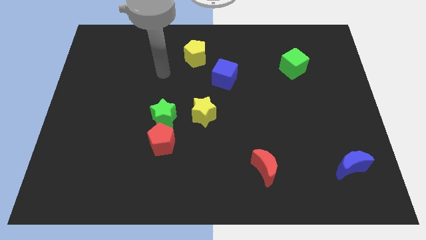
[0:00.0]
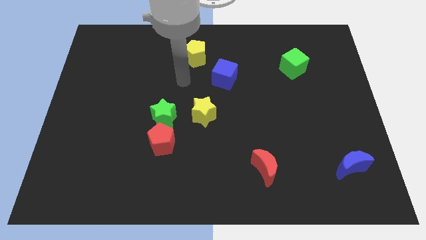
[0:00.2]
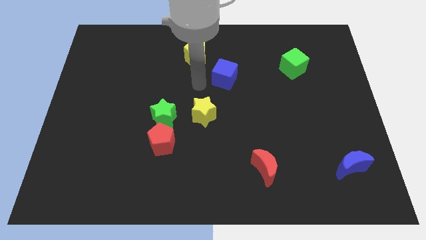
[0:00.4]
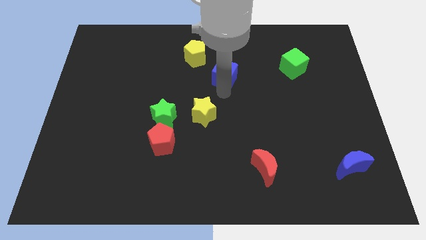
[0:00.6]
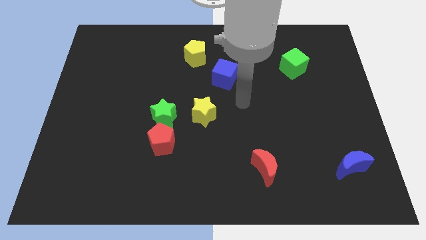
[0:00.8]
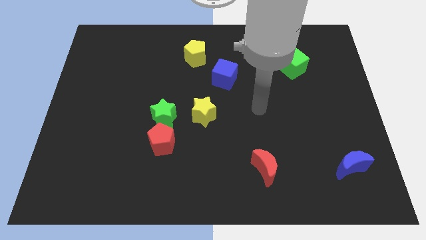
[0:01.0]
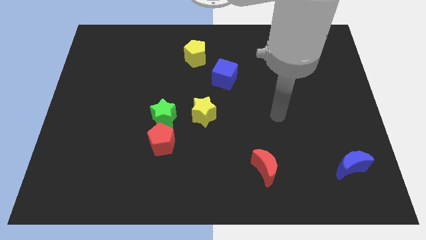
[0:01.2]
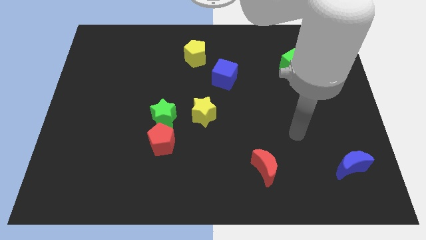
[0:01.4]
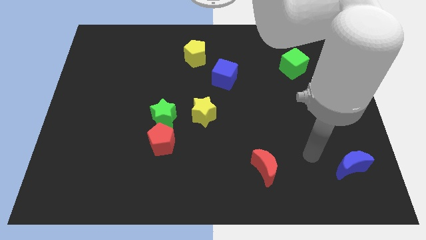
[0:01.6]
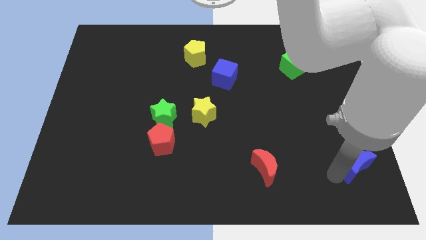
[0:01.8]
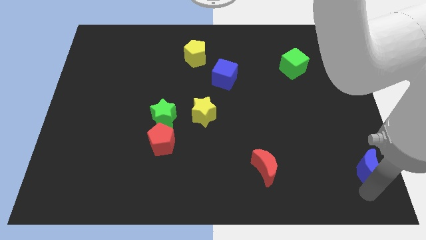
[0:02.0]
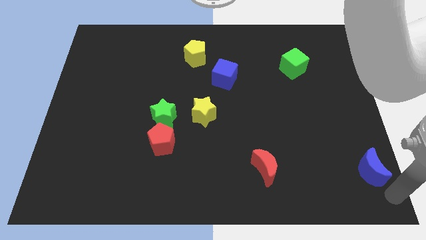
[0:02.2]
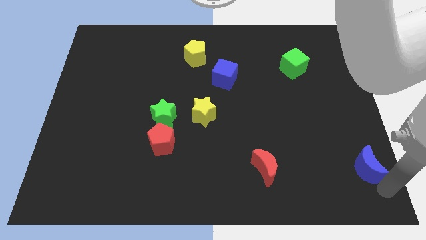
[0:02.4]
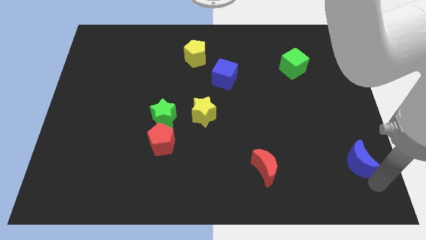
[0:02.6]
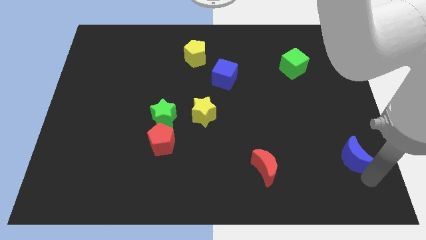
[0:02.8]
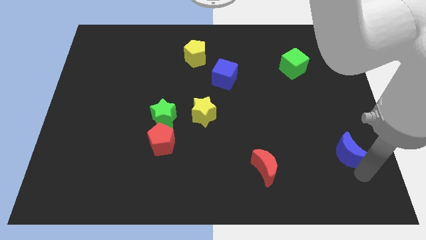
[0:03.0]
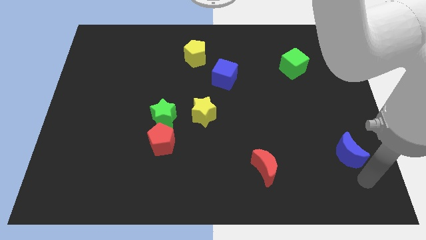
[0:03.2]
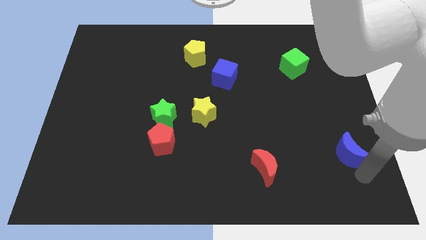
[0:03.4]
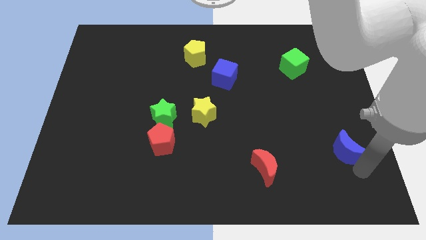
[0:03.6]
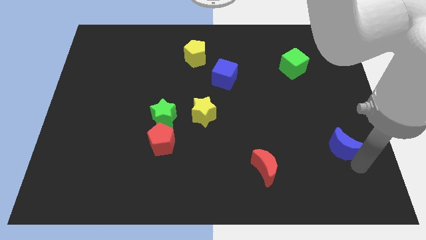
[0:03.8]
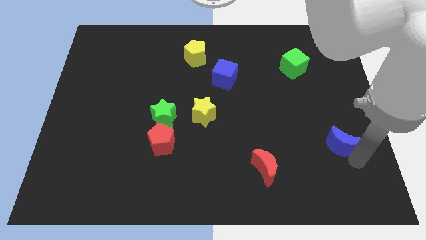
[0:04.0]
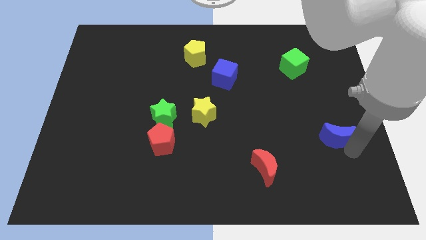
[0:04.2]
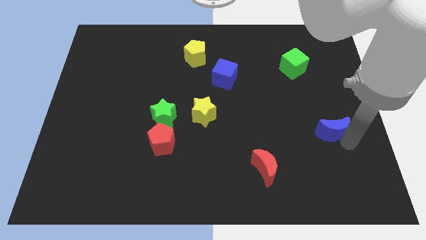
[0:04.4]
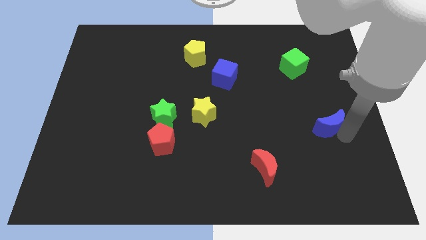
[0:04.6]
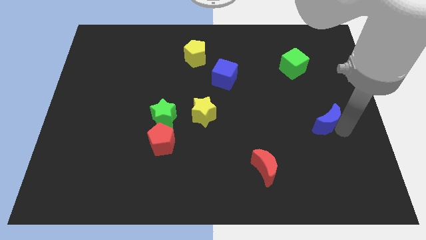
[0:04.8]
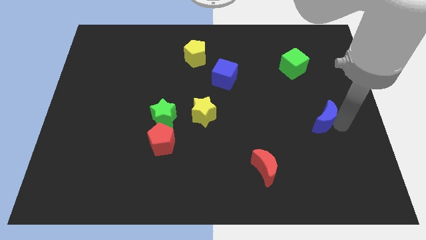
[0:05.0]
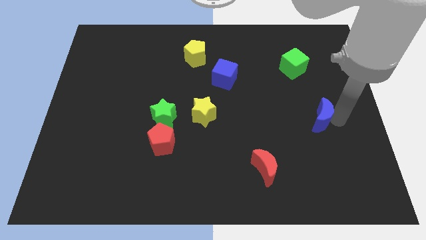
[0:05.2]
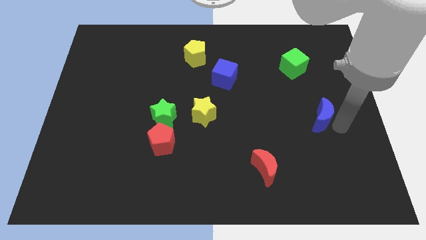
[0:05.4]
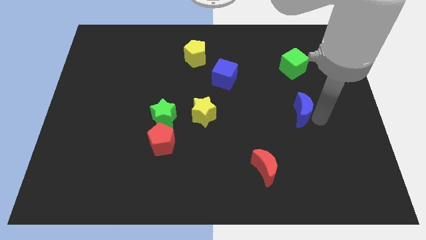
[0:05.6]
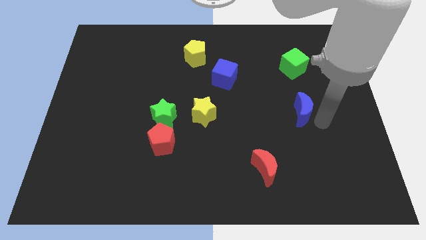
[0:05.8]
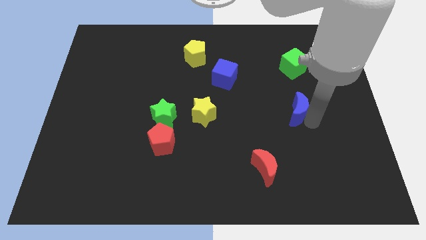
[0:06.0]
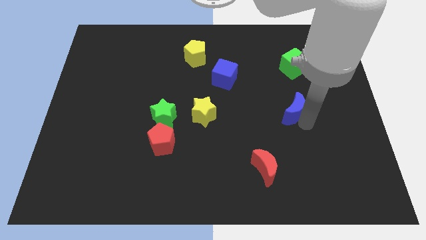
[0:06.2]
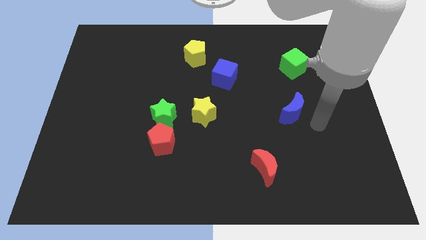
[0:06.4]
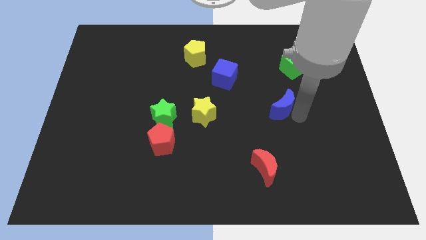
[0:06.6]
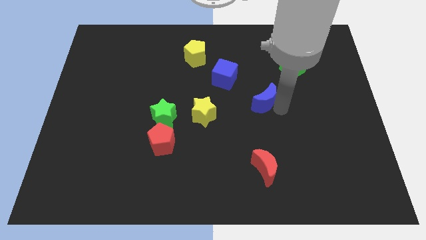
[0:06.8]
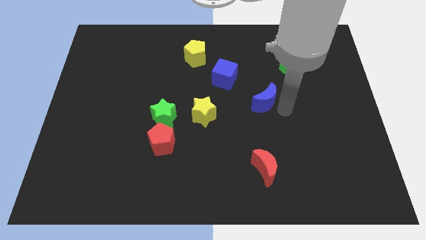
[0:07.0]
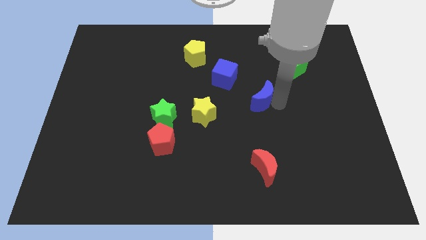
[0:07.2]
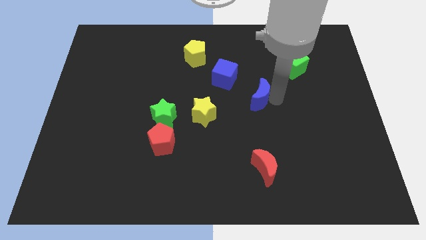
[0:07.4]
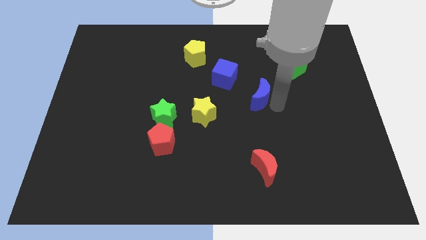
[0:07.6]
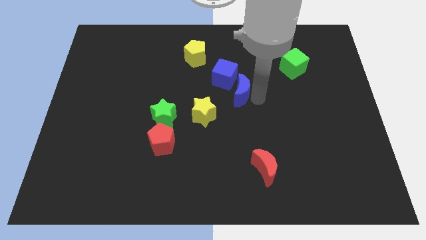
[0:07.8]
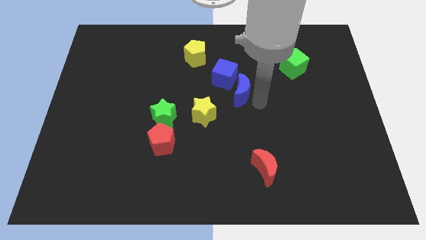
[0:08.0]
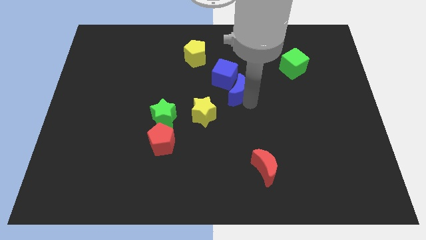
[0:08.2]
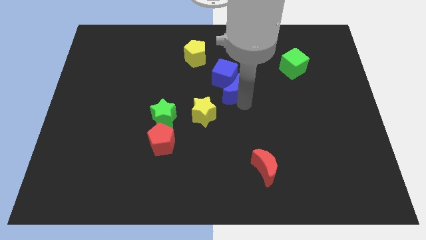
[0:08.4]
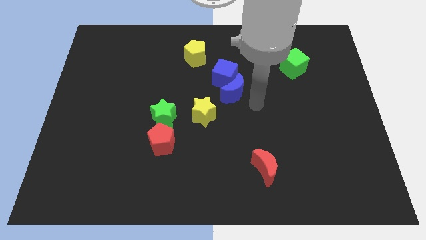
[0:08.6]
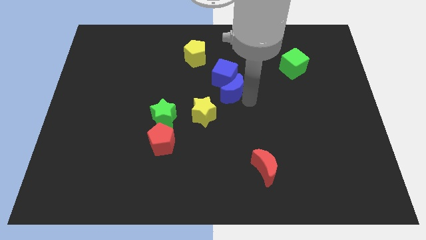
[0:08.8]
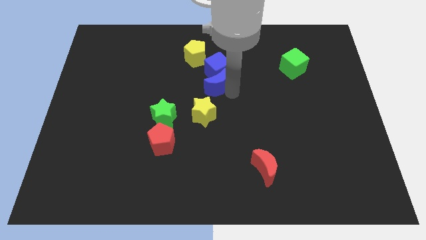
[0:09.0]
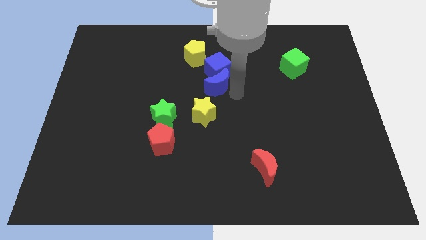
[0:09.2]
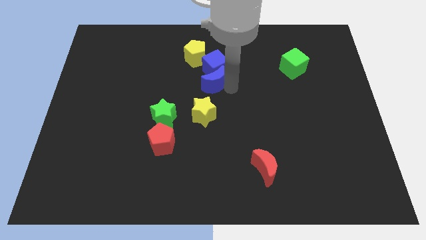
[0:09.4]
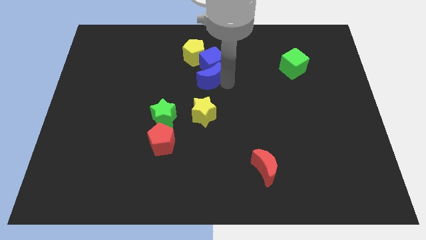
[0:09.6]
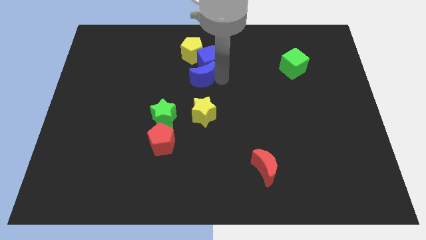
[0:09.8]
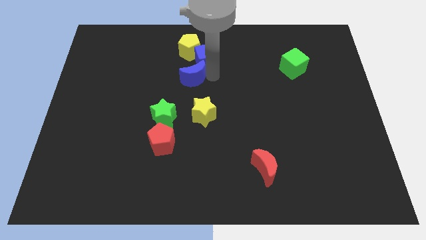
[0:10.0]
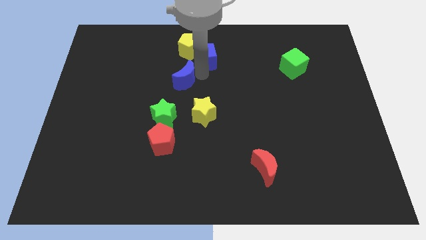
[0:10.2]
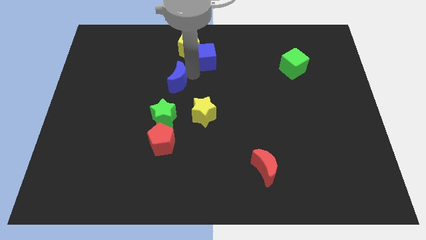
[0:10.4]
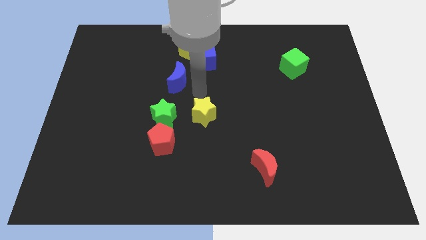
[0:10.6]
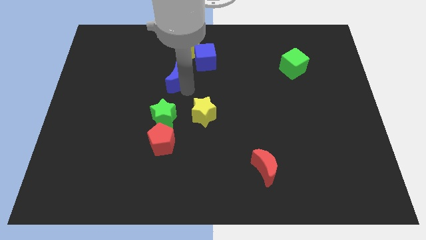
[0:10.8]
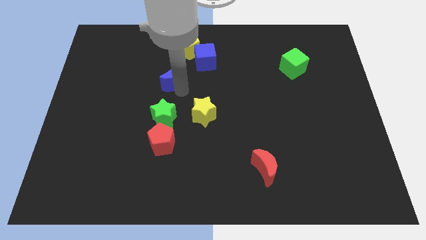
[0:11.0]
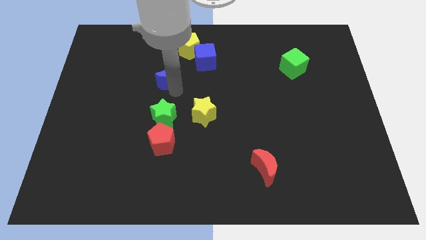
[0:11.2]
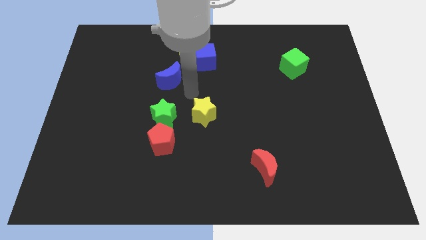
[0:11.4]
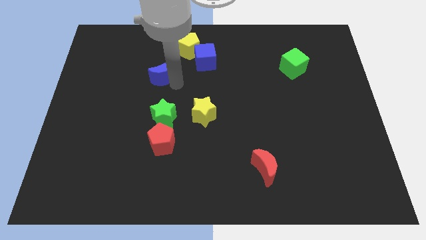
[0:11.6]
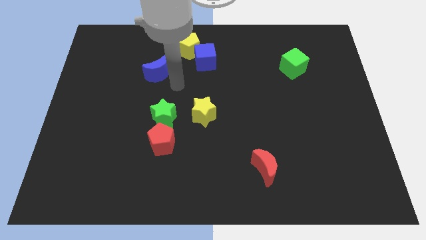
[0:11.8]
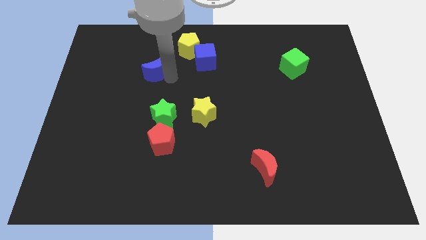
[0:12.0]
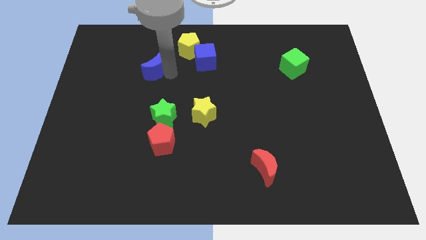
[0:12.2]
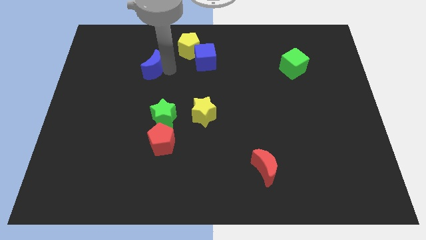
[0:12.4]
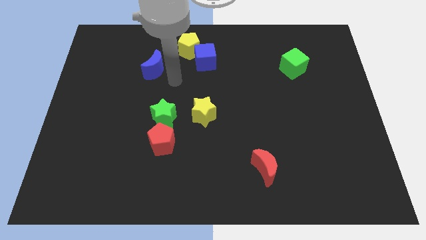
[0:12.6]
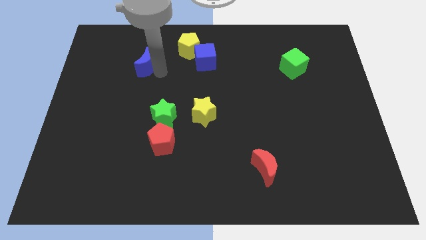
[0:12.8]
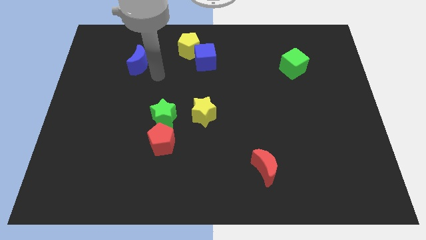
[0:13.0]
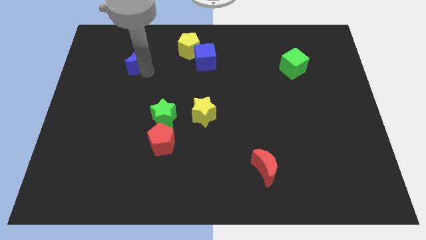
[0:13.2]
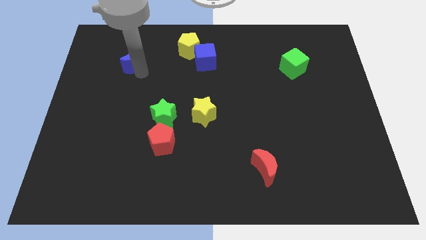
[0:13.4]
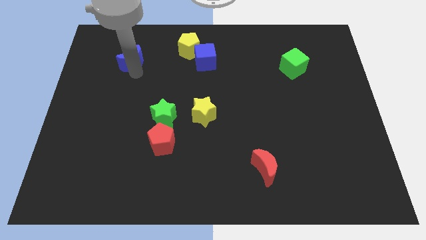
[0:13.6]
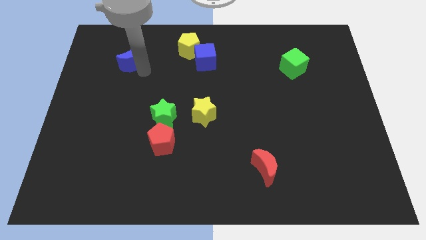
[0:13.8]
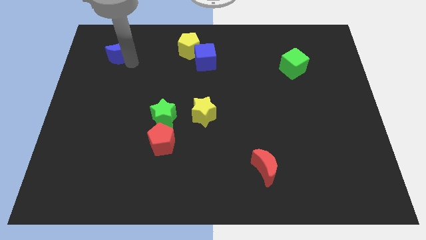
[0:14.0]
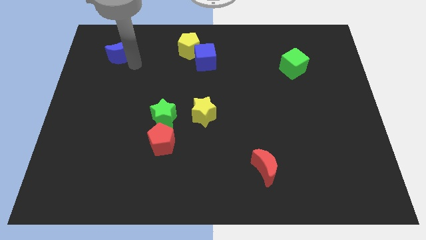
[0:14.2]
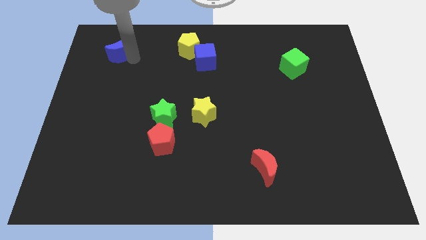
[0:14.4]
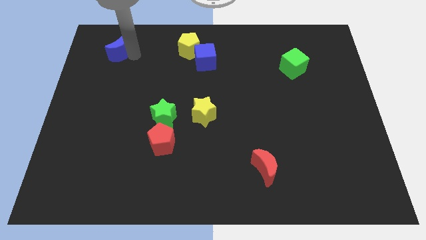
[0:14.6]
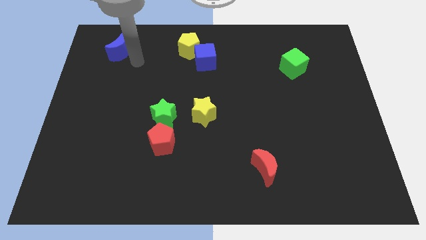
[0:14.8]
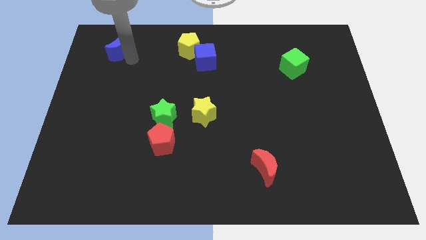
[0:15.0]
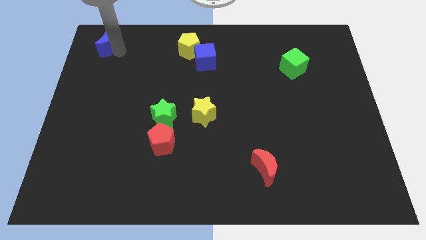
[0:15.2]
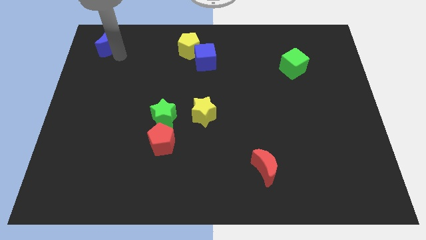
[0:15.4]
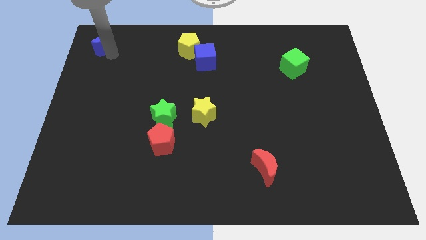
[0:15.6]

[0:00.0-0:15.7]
push the blue moon to the top left corner
